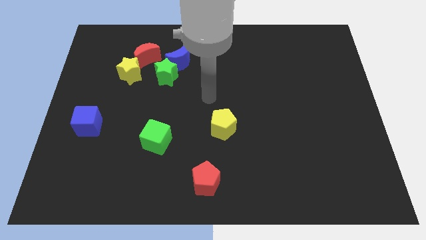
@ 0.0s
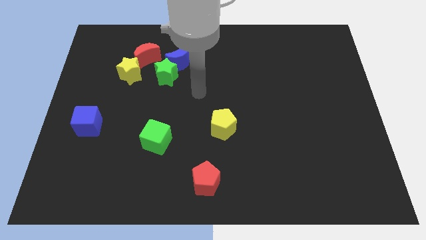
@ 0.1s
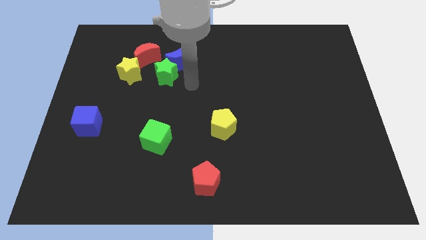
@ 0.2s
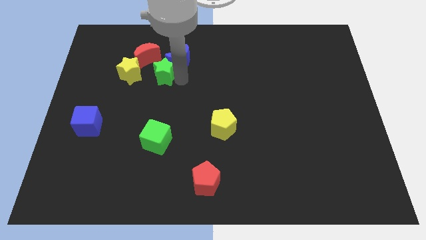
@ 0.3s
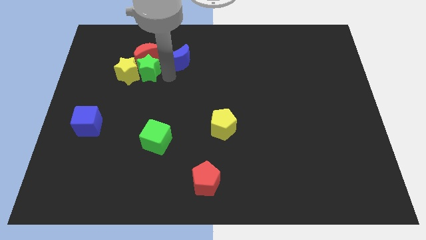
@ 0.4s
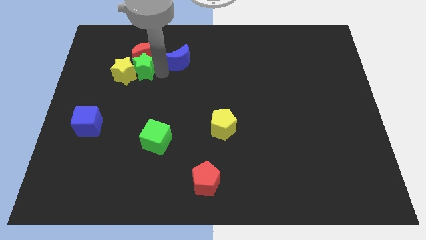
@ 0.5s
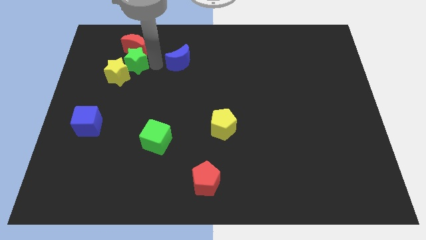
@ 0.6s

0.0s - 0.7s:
pull the blue moon apart from the green star and red moon

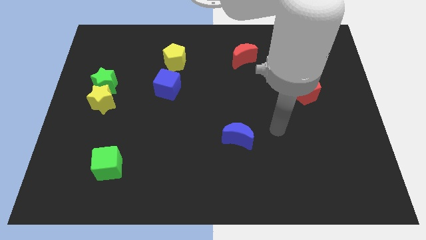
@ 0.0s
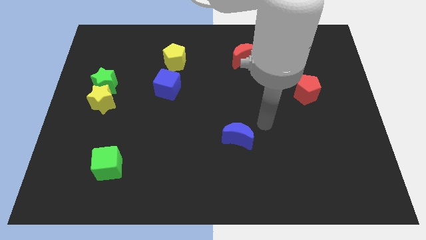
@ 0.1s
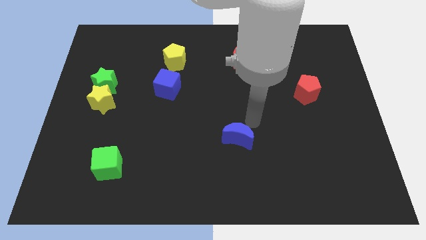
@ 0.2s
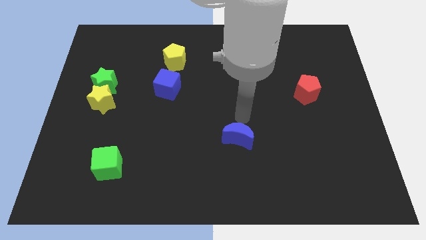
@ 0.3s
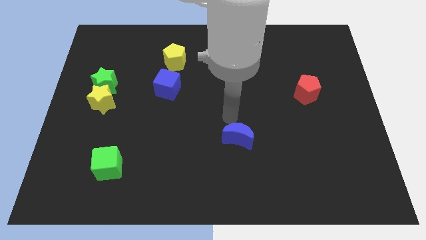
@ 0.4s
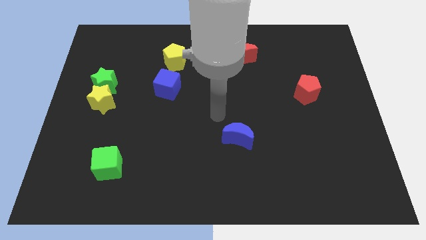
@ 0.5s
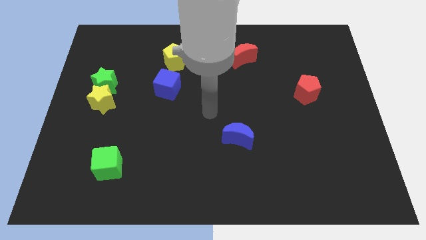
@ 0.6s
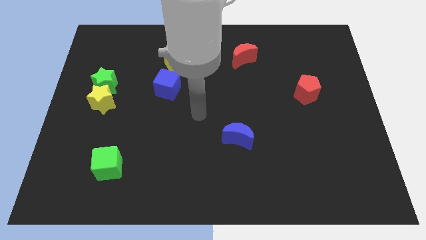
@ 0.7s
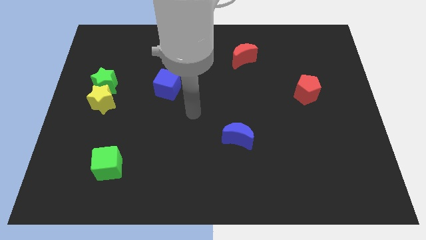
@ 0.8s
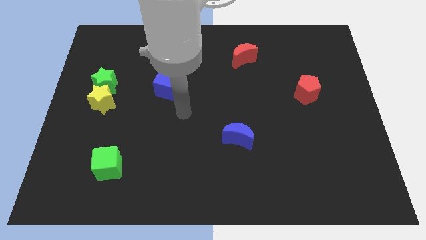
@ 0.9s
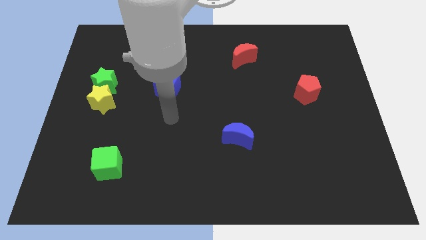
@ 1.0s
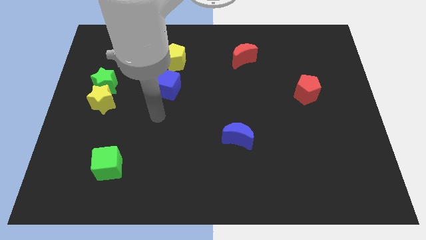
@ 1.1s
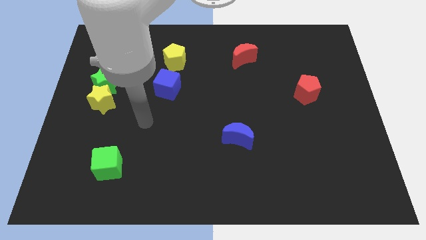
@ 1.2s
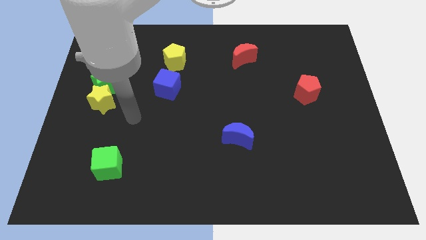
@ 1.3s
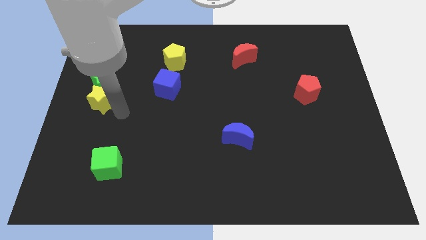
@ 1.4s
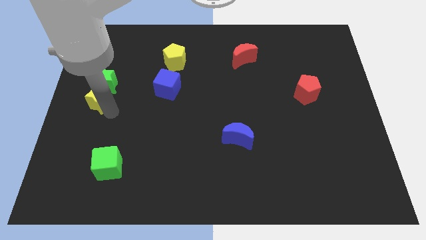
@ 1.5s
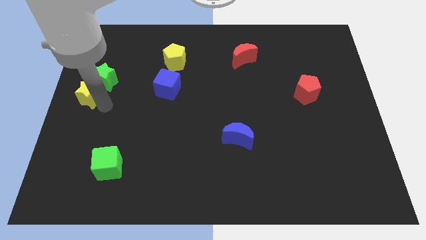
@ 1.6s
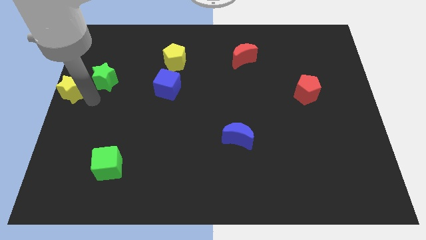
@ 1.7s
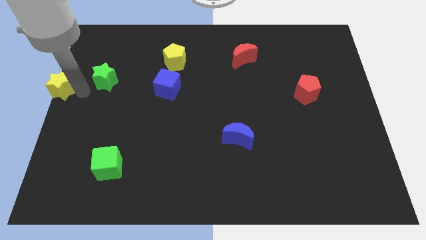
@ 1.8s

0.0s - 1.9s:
pull the green star apart from the yellow star

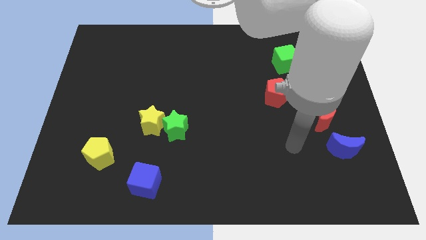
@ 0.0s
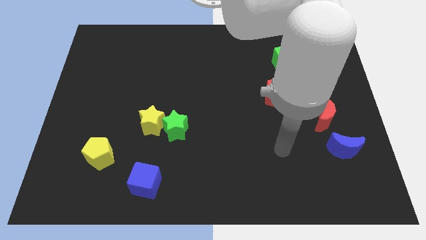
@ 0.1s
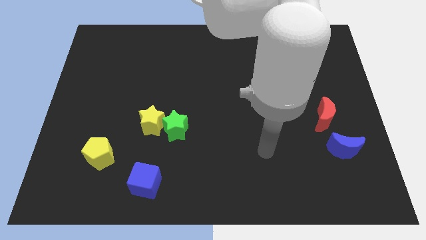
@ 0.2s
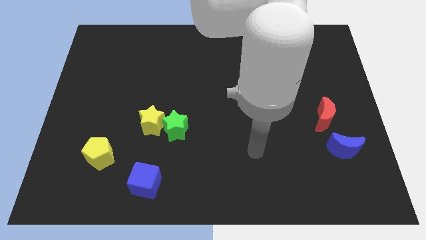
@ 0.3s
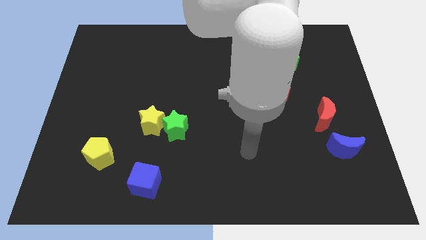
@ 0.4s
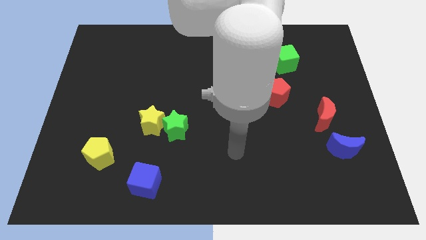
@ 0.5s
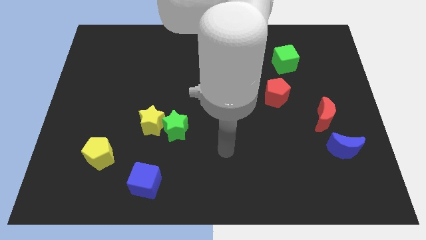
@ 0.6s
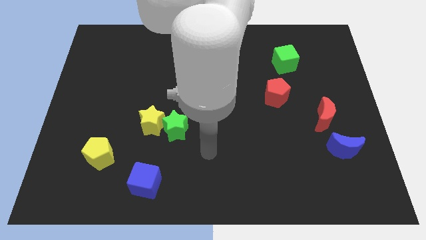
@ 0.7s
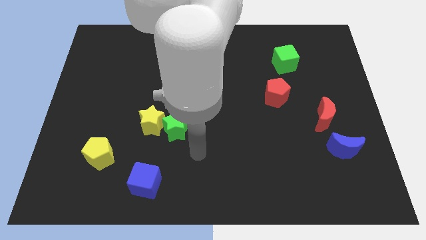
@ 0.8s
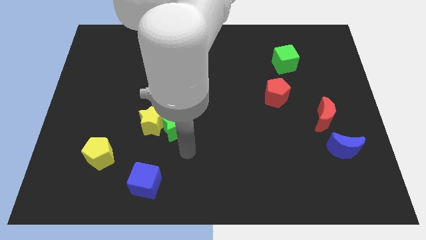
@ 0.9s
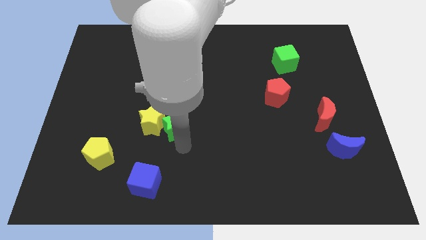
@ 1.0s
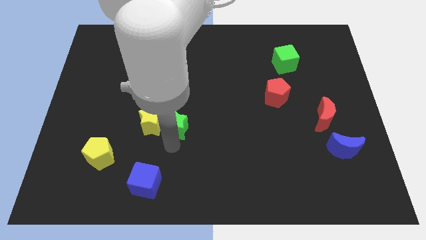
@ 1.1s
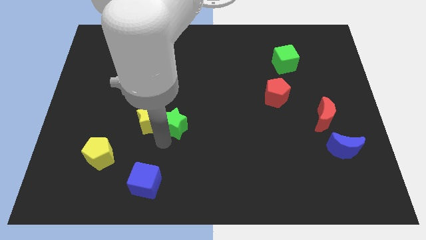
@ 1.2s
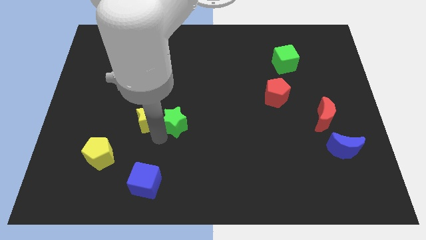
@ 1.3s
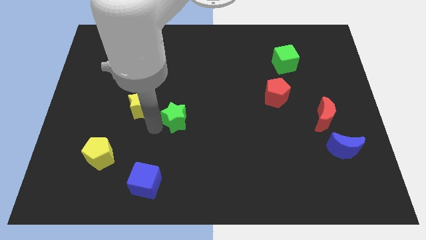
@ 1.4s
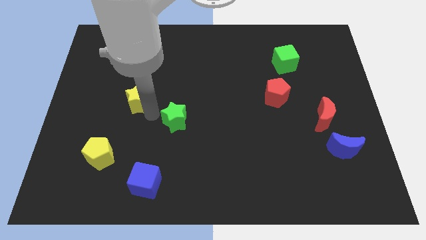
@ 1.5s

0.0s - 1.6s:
move the green star away from the yellow star

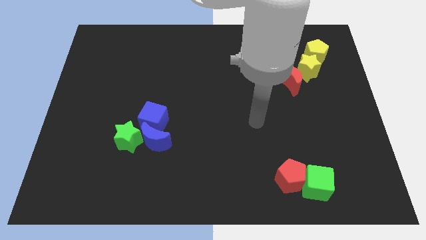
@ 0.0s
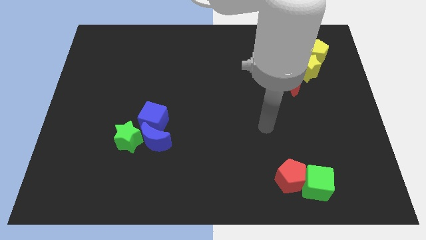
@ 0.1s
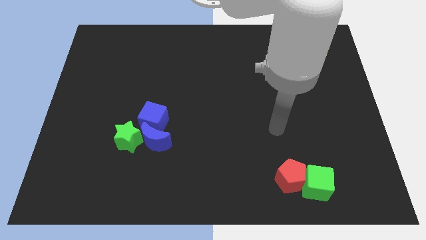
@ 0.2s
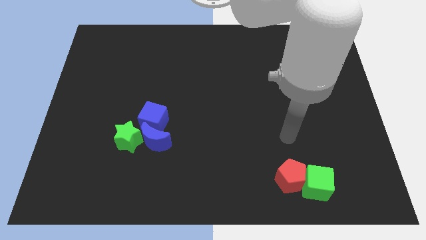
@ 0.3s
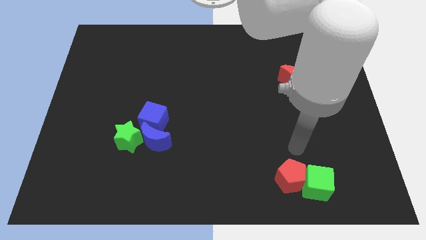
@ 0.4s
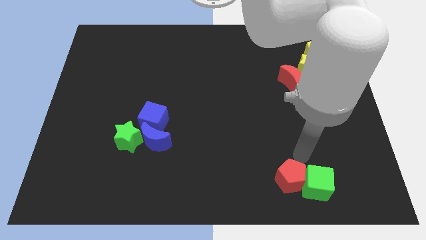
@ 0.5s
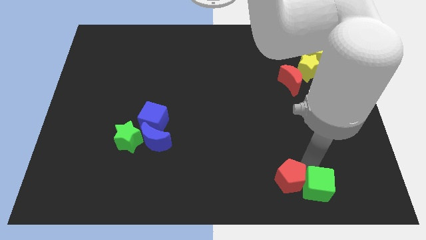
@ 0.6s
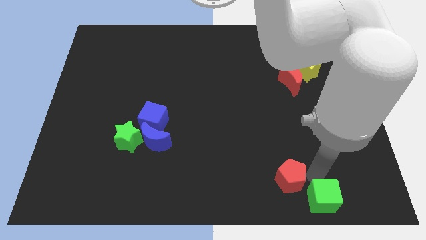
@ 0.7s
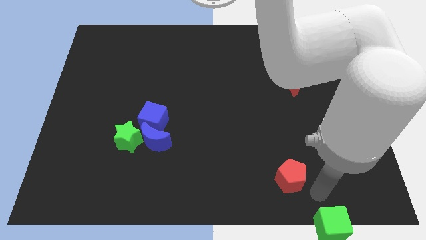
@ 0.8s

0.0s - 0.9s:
separate the red pentagon from the green cube

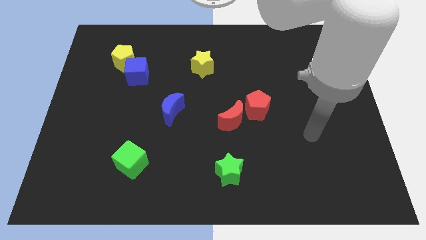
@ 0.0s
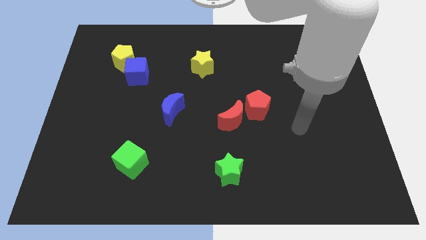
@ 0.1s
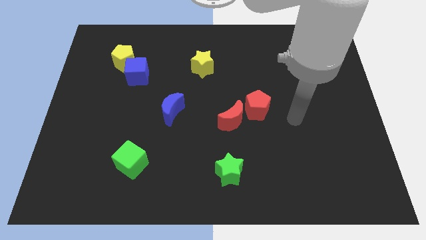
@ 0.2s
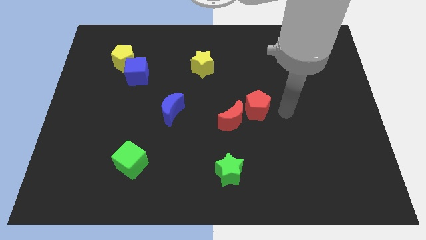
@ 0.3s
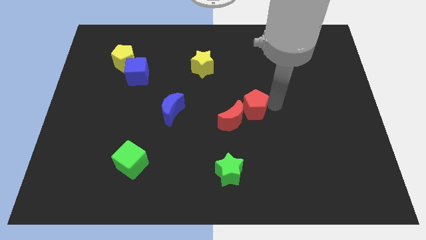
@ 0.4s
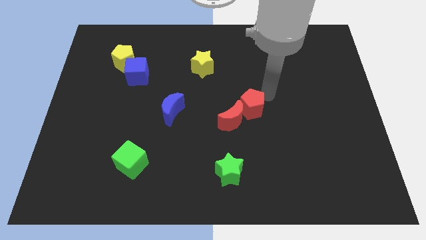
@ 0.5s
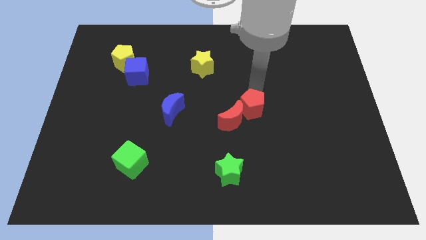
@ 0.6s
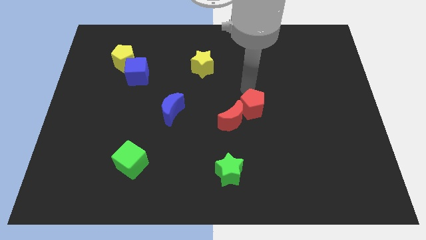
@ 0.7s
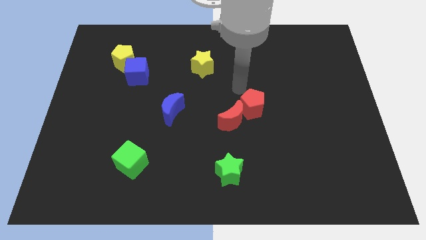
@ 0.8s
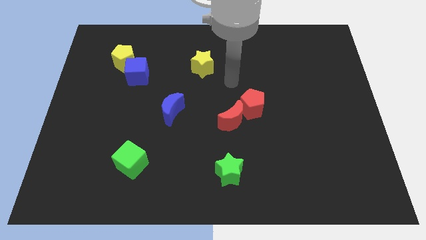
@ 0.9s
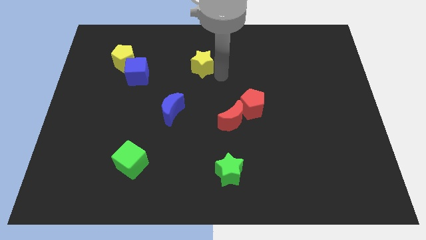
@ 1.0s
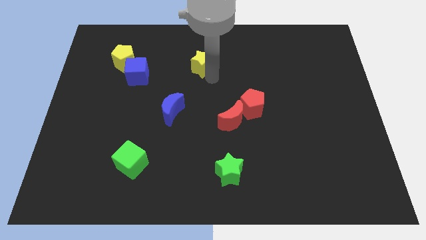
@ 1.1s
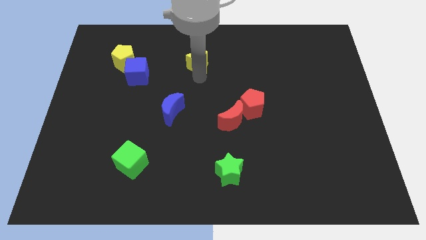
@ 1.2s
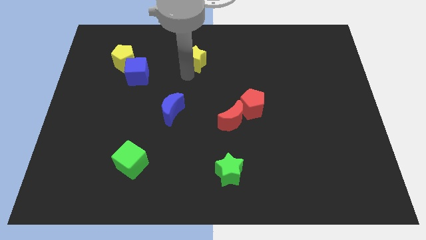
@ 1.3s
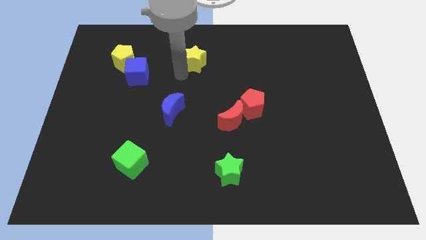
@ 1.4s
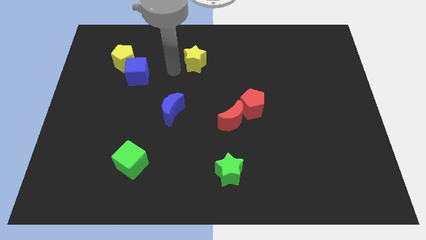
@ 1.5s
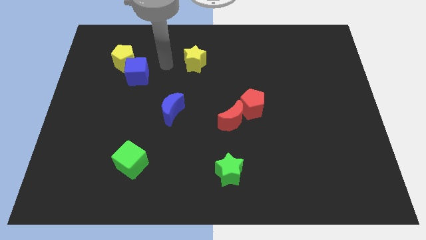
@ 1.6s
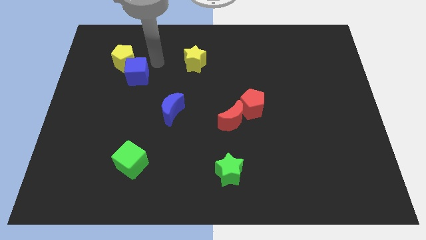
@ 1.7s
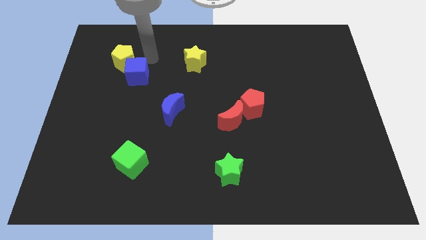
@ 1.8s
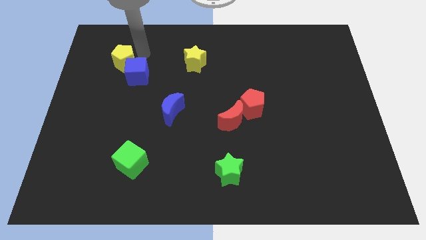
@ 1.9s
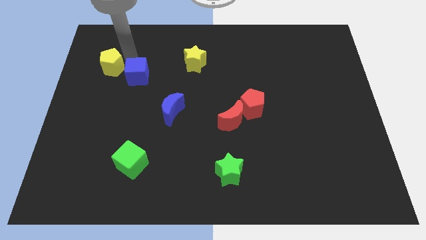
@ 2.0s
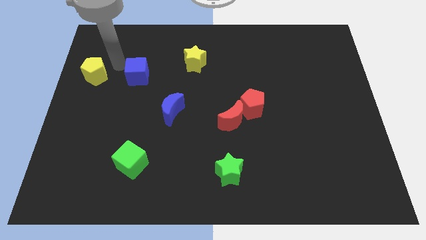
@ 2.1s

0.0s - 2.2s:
separate the blue cube from the yellow pentagon

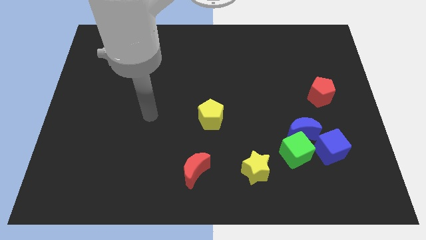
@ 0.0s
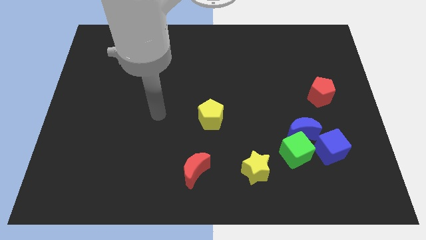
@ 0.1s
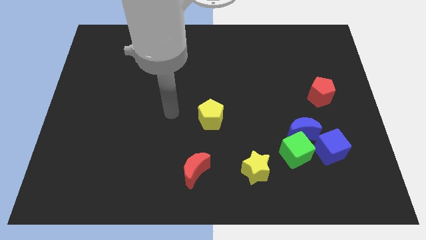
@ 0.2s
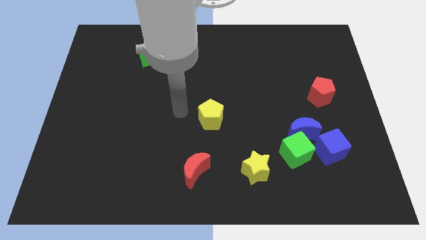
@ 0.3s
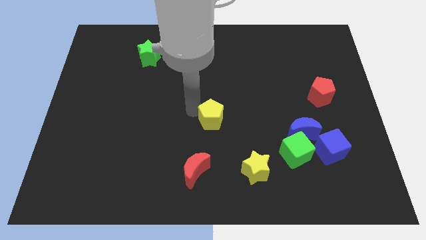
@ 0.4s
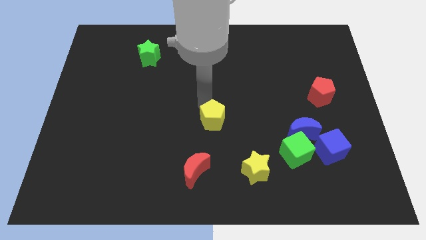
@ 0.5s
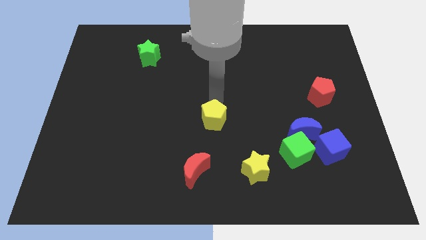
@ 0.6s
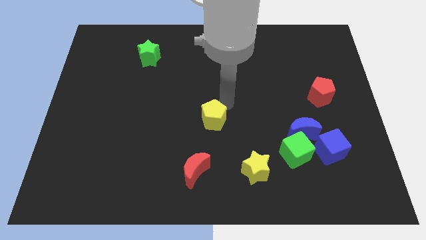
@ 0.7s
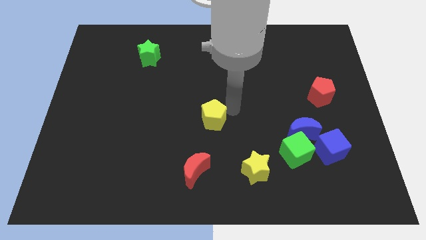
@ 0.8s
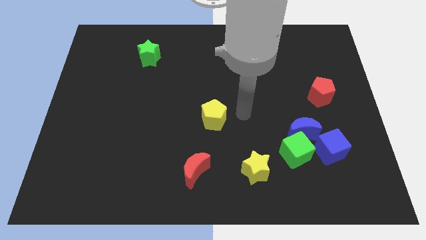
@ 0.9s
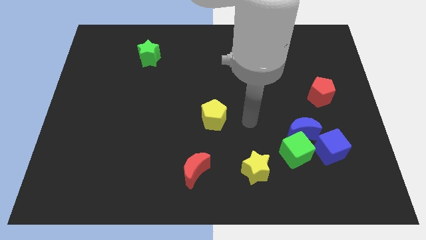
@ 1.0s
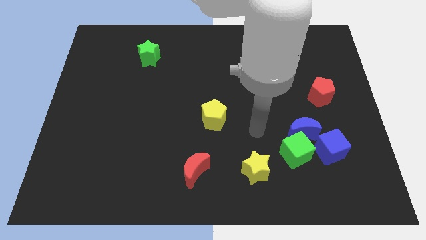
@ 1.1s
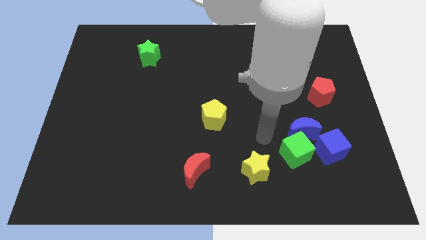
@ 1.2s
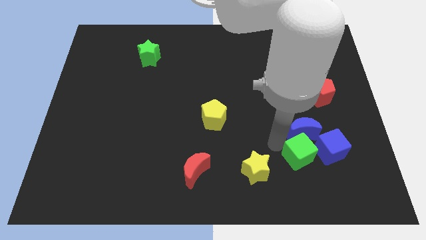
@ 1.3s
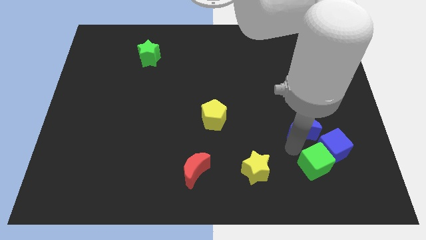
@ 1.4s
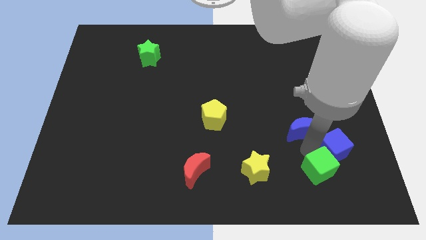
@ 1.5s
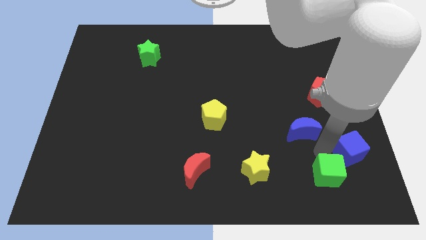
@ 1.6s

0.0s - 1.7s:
pull the blue moon apart from the green cube and blue cube

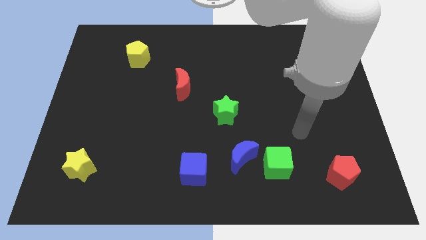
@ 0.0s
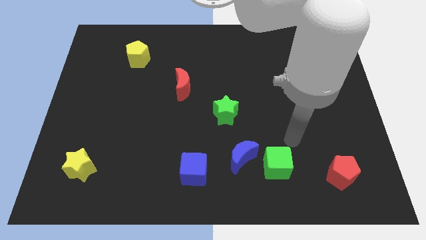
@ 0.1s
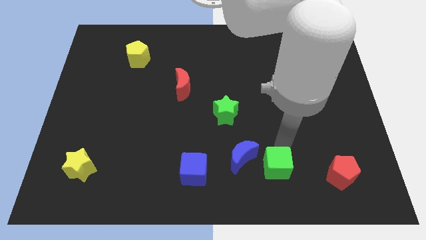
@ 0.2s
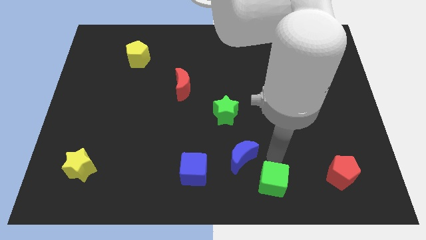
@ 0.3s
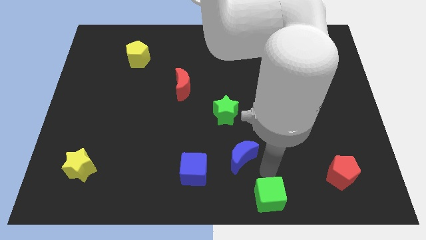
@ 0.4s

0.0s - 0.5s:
separate the blue moon from the green cube
